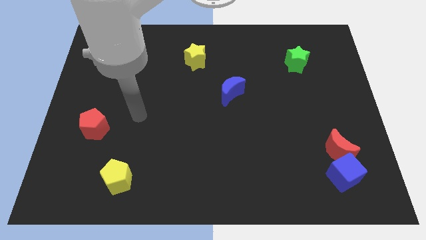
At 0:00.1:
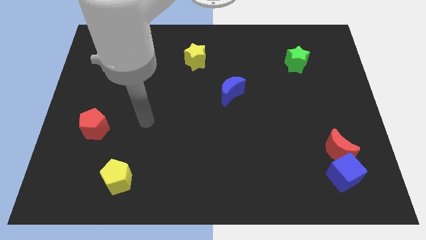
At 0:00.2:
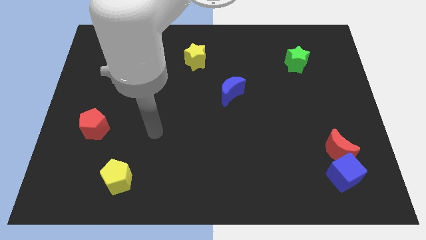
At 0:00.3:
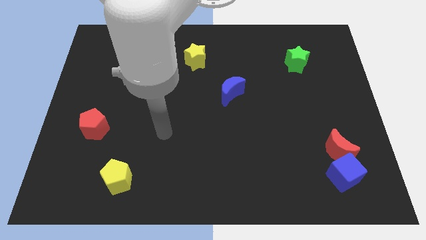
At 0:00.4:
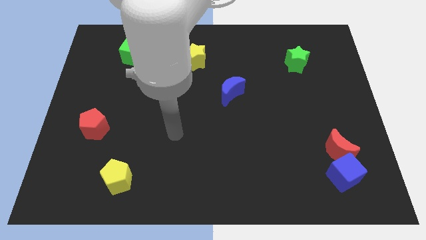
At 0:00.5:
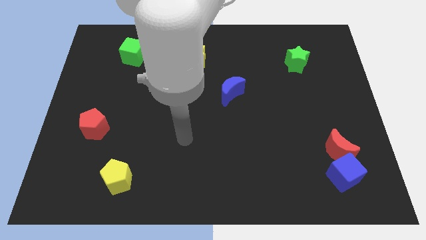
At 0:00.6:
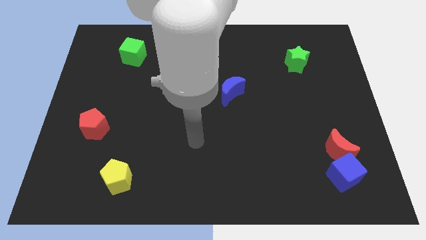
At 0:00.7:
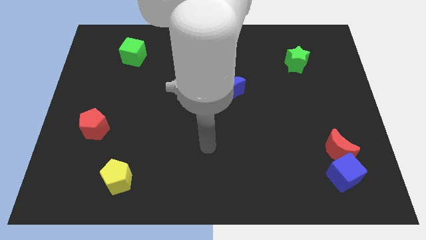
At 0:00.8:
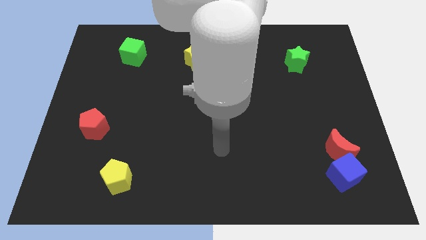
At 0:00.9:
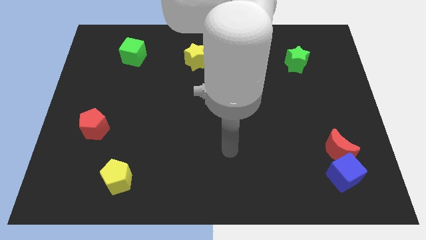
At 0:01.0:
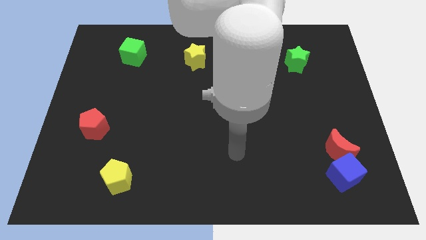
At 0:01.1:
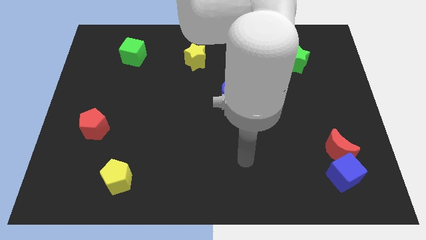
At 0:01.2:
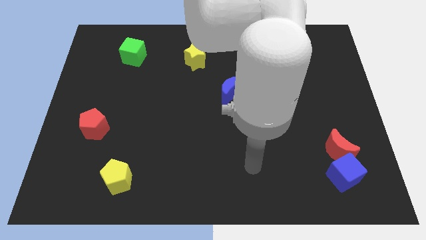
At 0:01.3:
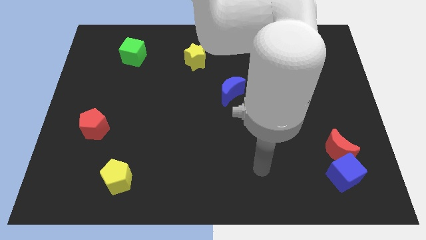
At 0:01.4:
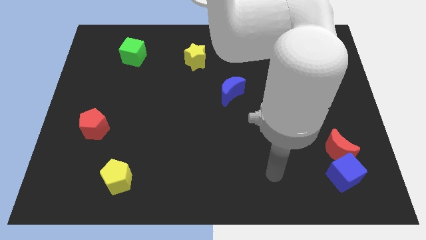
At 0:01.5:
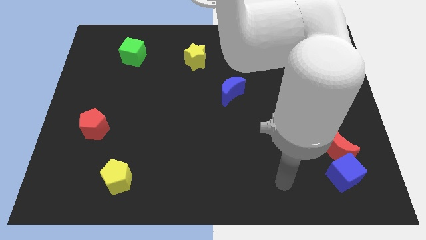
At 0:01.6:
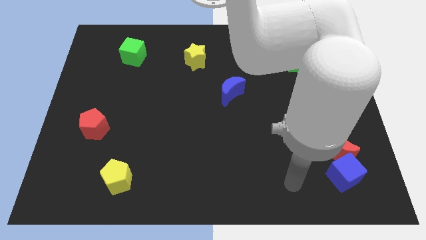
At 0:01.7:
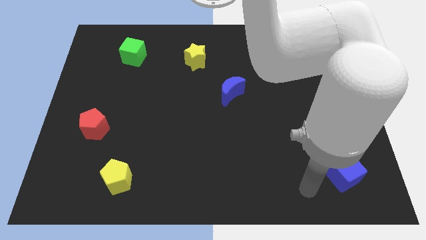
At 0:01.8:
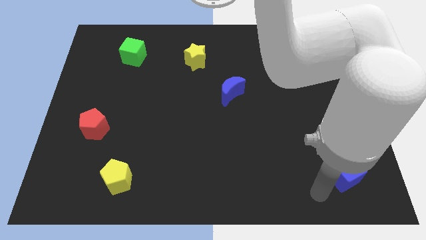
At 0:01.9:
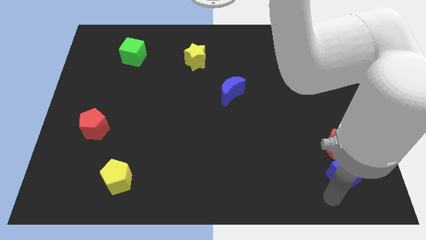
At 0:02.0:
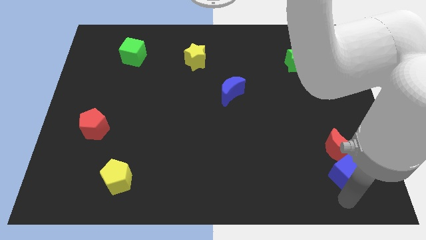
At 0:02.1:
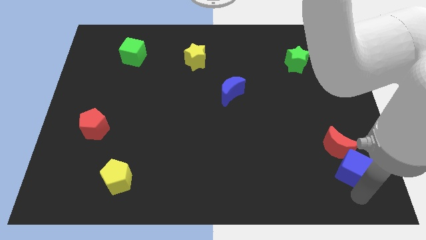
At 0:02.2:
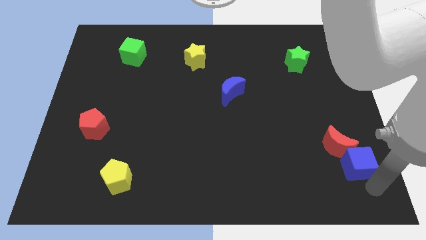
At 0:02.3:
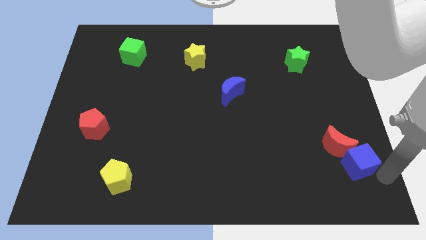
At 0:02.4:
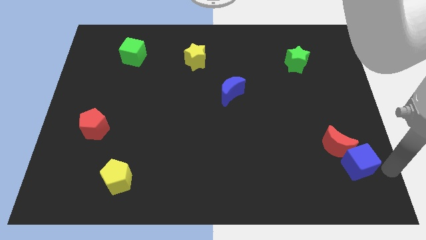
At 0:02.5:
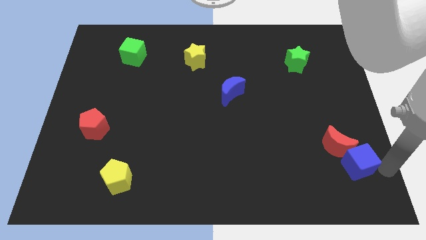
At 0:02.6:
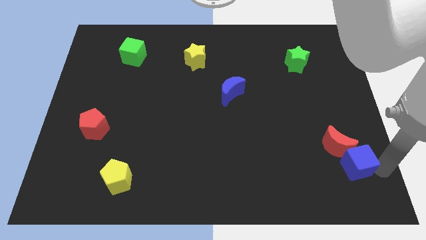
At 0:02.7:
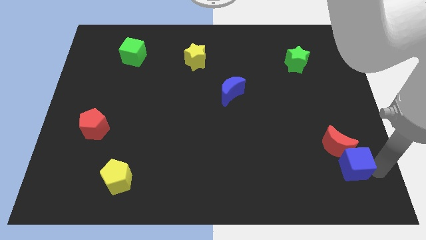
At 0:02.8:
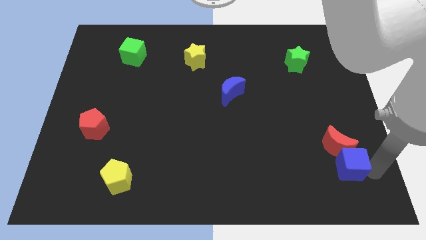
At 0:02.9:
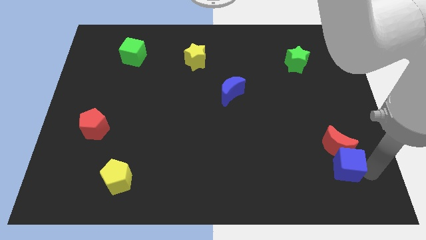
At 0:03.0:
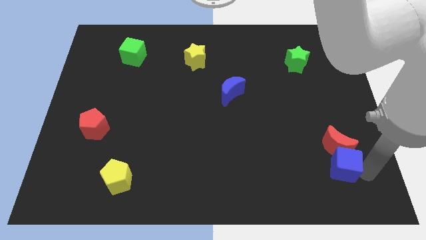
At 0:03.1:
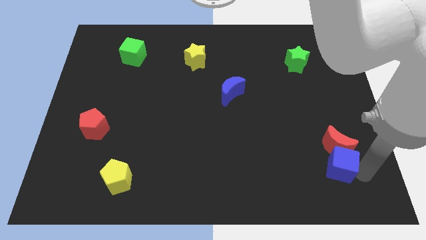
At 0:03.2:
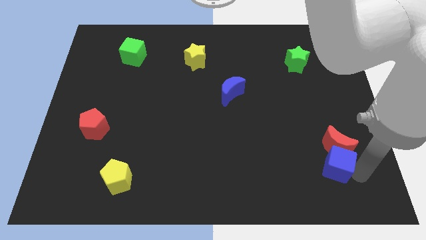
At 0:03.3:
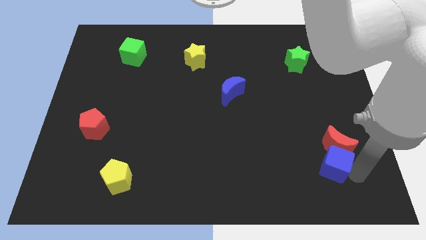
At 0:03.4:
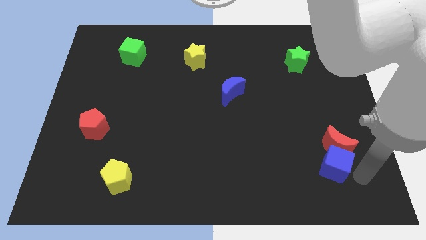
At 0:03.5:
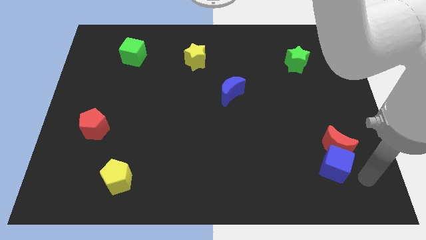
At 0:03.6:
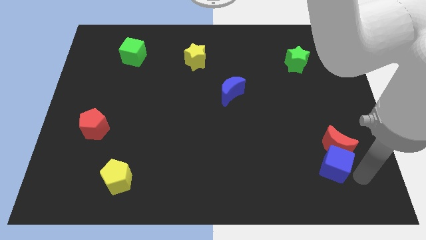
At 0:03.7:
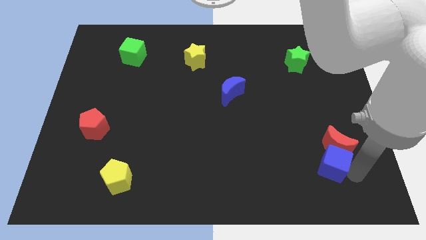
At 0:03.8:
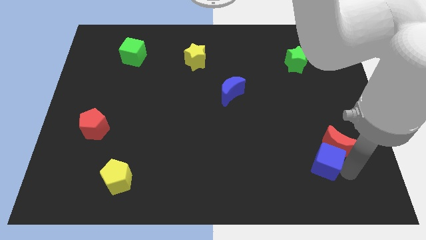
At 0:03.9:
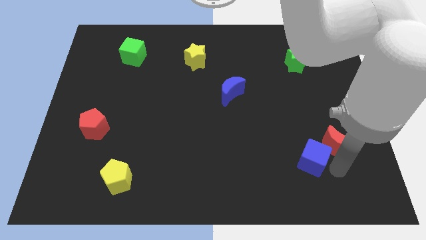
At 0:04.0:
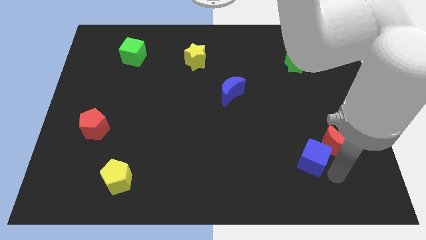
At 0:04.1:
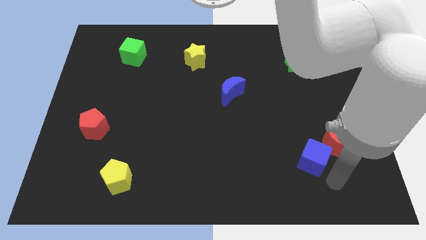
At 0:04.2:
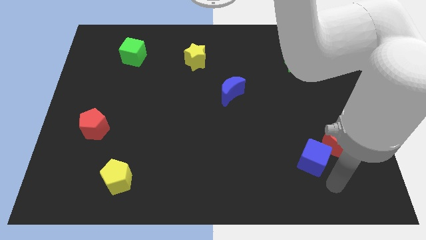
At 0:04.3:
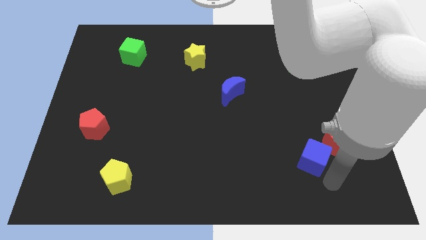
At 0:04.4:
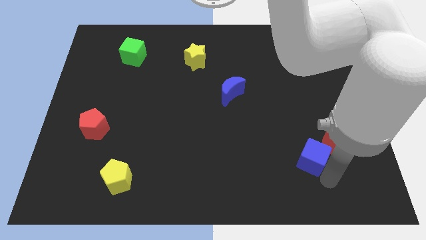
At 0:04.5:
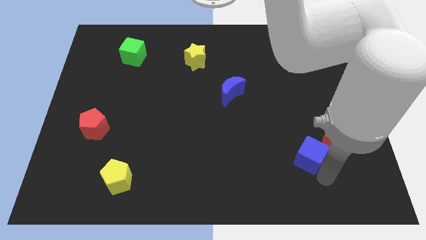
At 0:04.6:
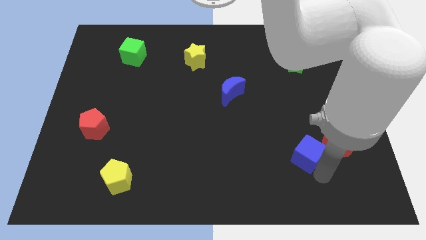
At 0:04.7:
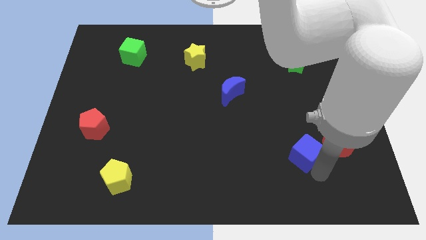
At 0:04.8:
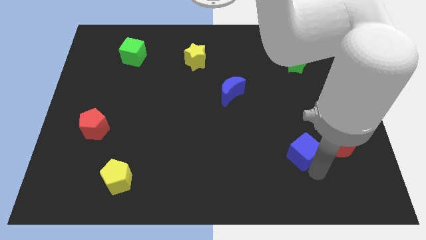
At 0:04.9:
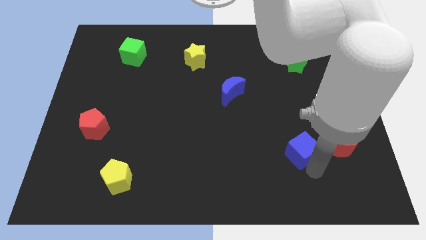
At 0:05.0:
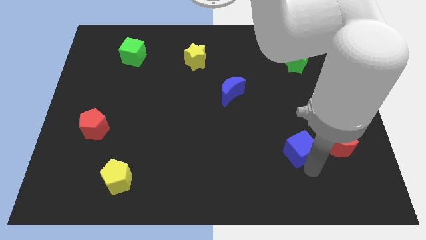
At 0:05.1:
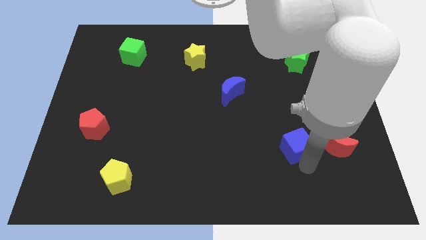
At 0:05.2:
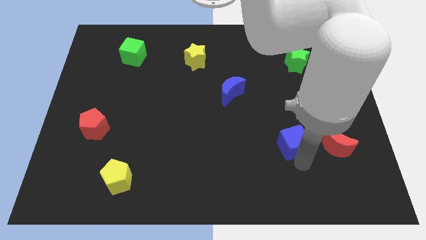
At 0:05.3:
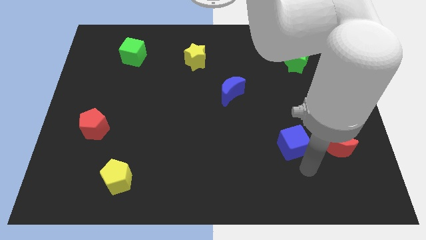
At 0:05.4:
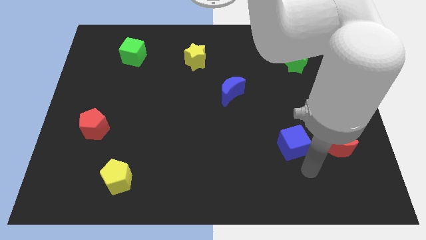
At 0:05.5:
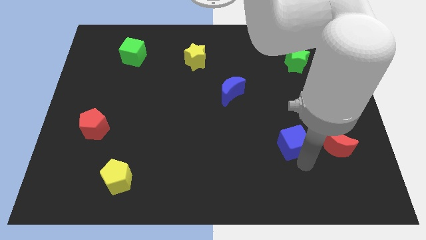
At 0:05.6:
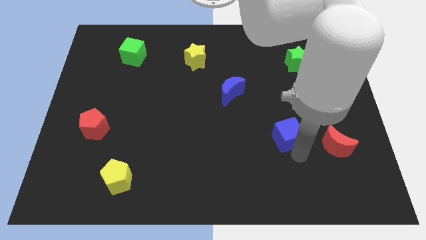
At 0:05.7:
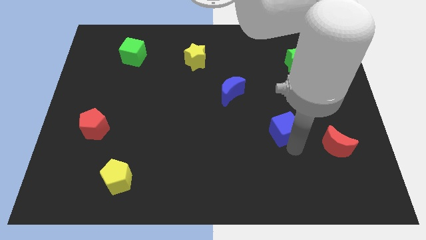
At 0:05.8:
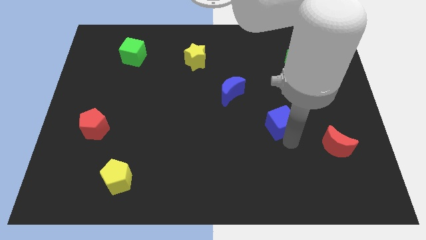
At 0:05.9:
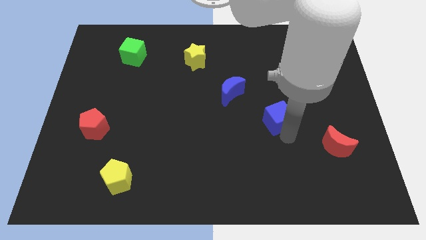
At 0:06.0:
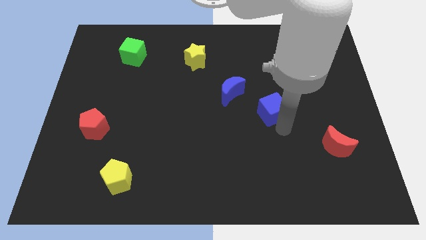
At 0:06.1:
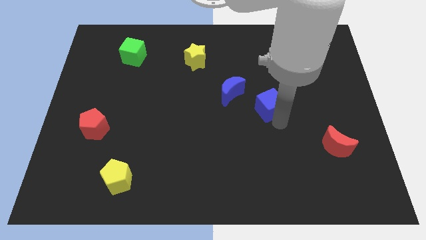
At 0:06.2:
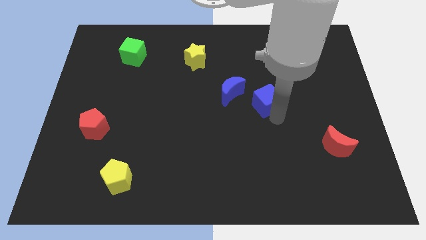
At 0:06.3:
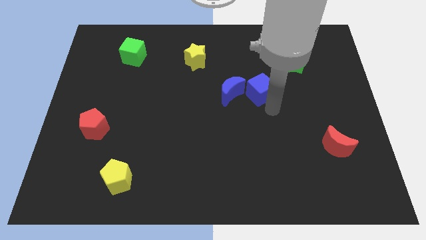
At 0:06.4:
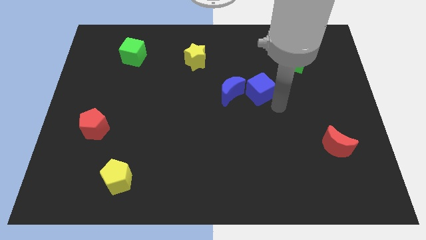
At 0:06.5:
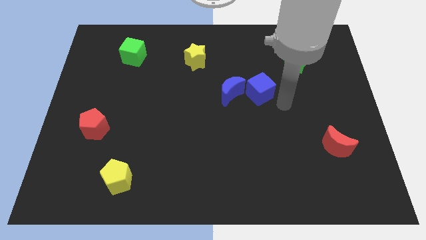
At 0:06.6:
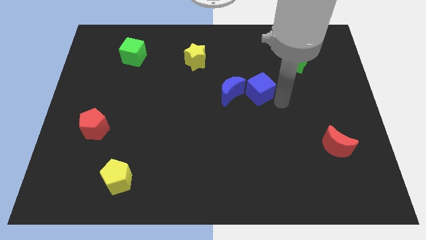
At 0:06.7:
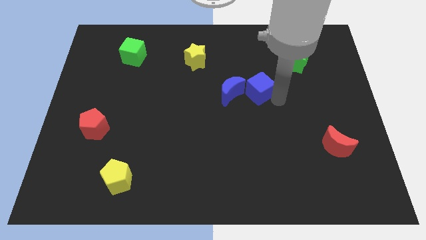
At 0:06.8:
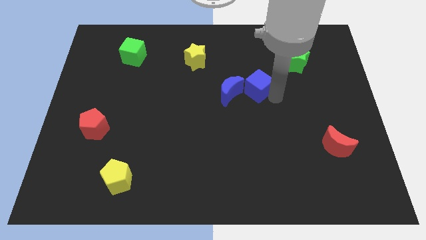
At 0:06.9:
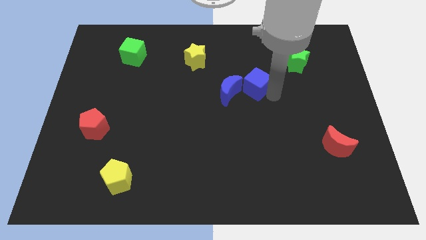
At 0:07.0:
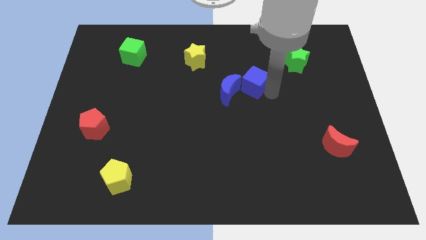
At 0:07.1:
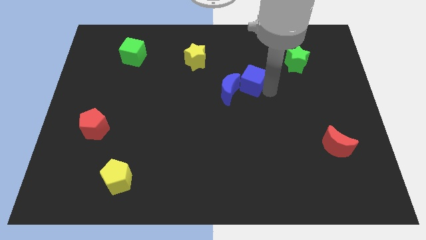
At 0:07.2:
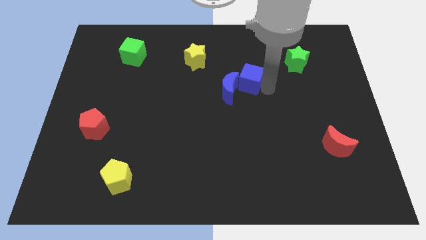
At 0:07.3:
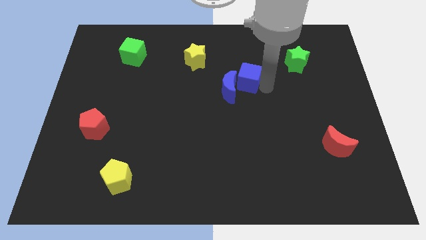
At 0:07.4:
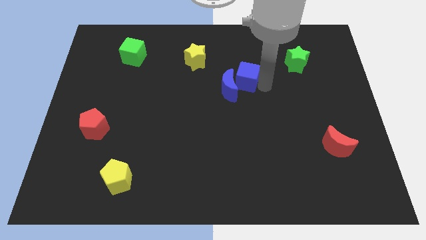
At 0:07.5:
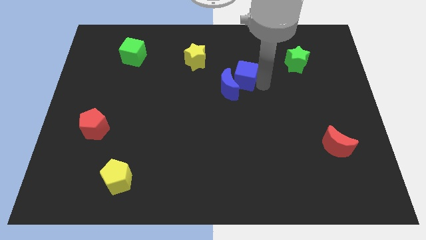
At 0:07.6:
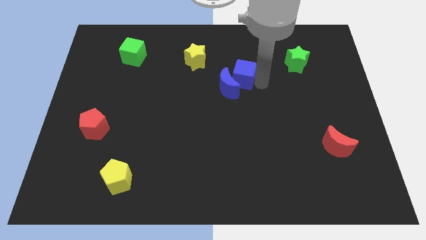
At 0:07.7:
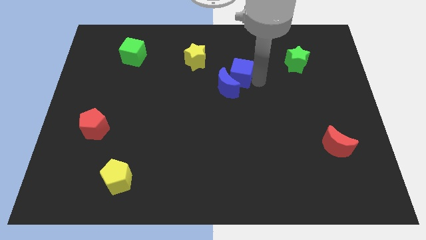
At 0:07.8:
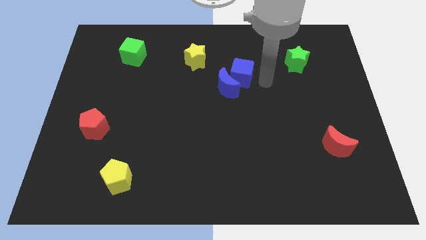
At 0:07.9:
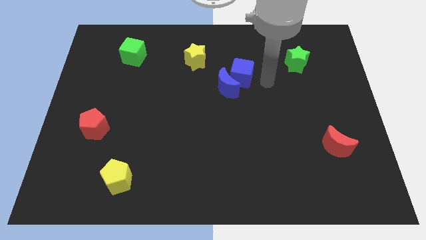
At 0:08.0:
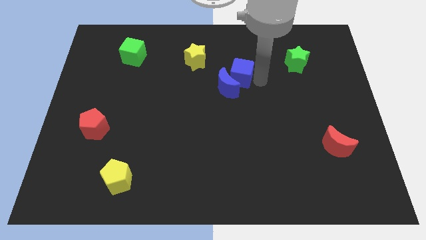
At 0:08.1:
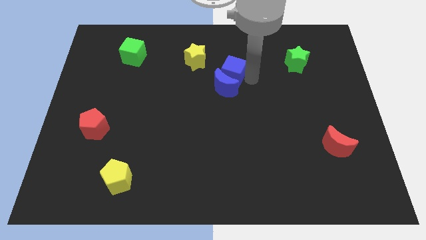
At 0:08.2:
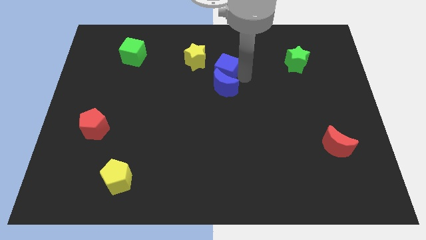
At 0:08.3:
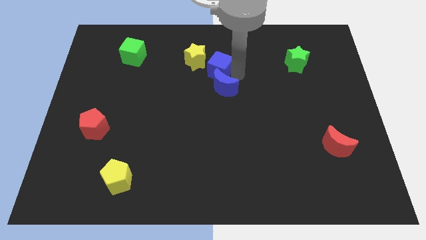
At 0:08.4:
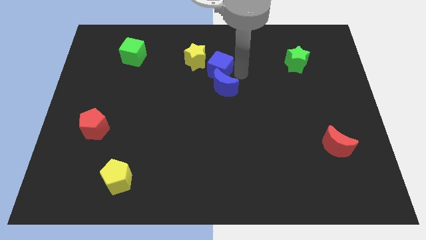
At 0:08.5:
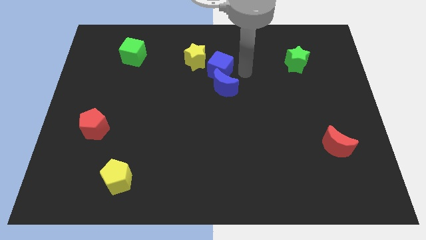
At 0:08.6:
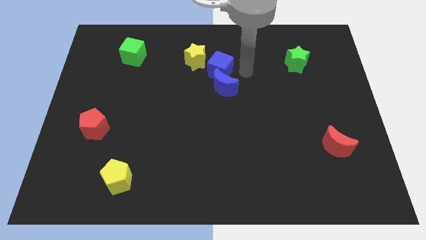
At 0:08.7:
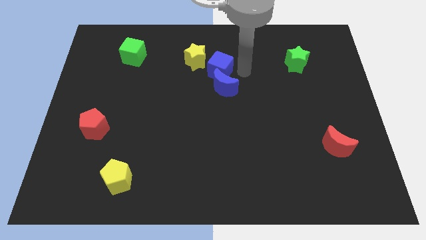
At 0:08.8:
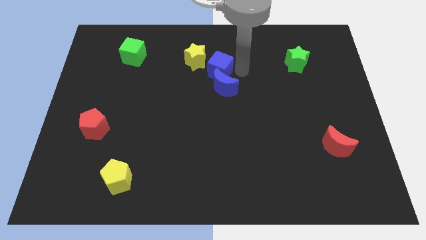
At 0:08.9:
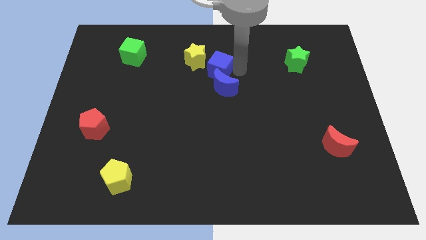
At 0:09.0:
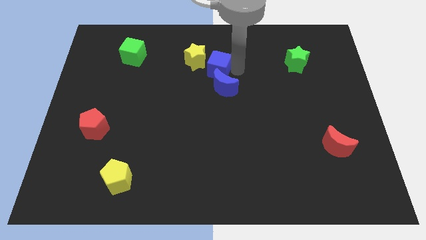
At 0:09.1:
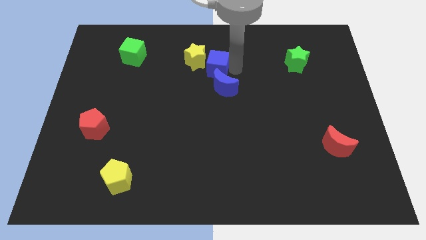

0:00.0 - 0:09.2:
push the blue cube close to the yellow star
